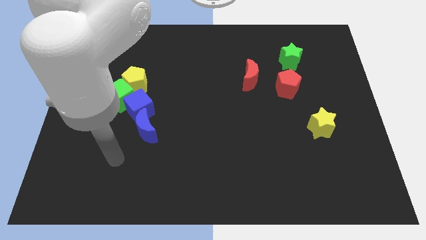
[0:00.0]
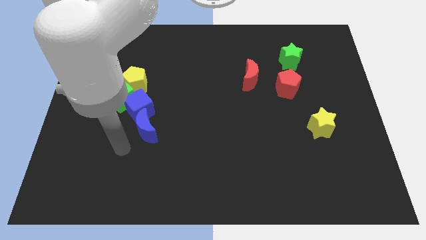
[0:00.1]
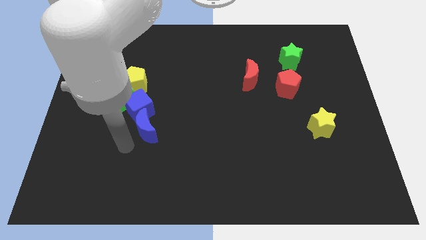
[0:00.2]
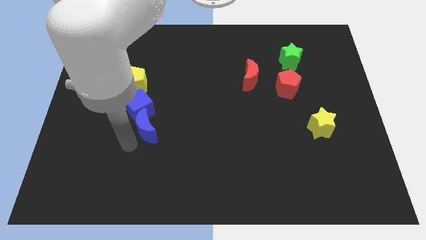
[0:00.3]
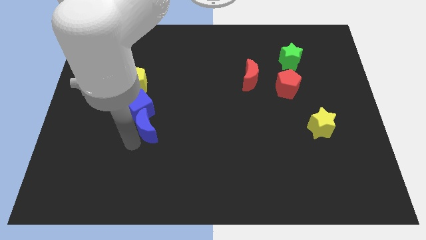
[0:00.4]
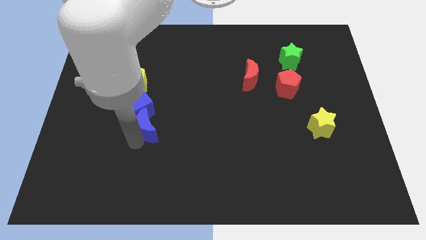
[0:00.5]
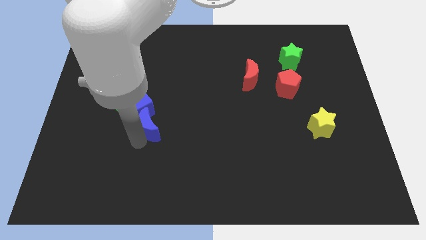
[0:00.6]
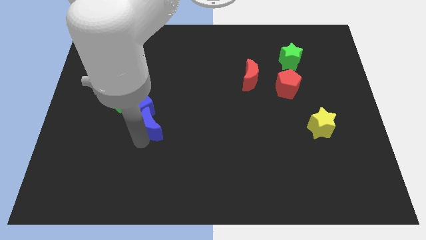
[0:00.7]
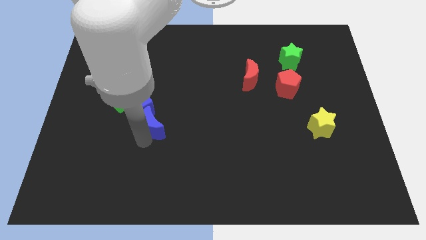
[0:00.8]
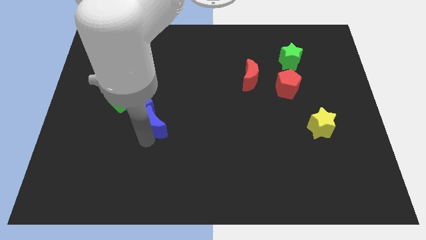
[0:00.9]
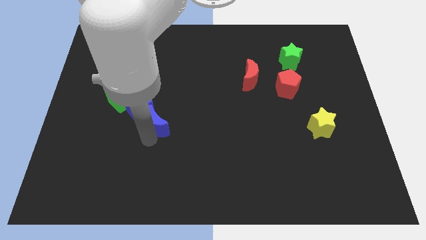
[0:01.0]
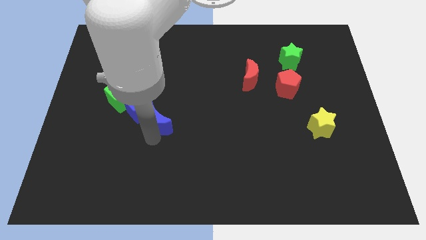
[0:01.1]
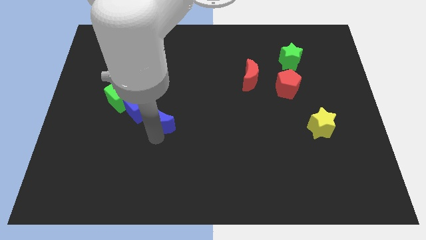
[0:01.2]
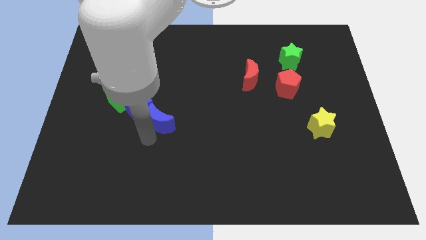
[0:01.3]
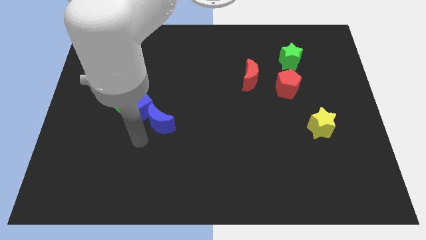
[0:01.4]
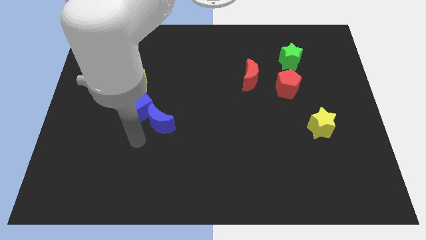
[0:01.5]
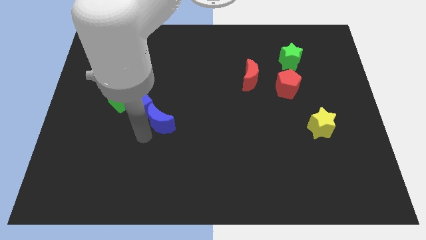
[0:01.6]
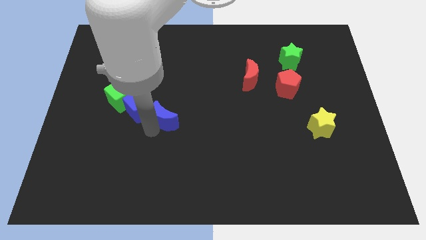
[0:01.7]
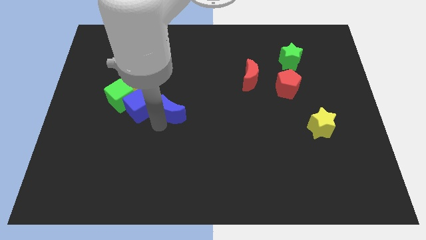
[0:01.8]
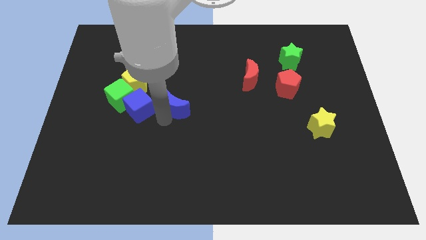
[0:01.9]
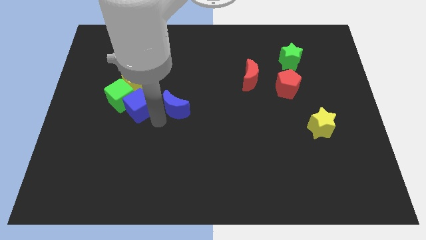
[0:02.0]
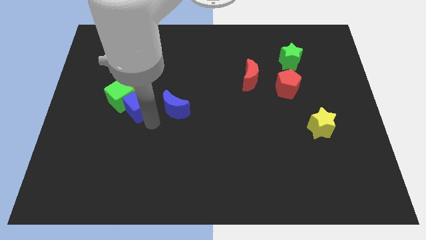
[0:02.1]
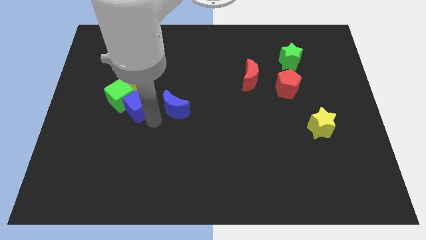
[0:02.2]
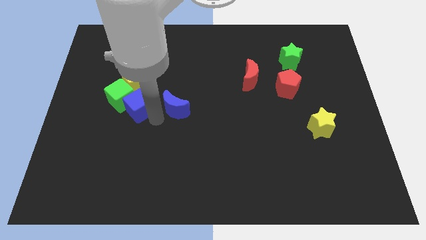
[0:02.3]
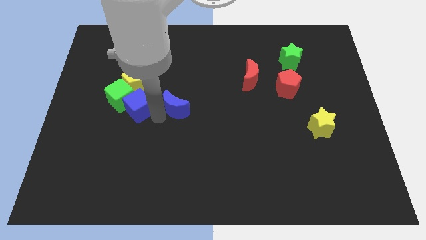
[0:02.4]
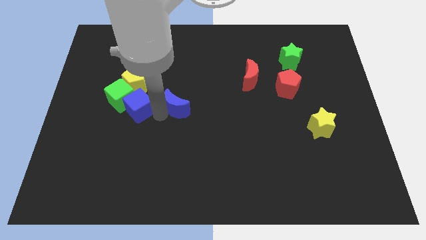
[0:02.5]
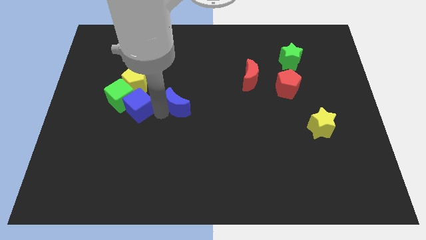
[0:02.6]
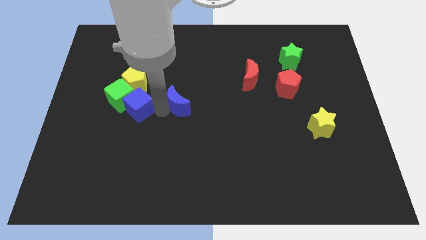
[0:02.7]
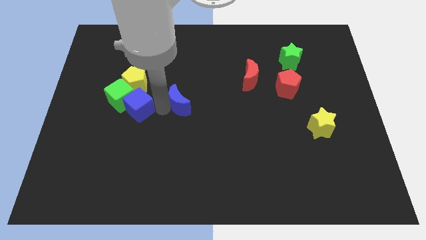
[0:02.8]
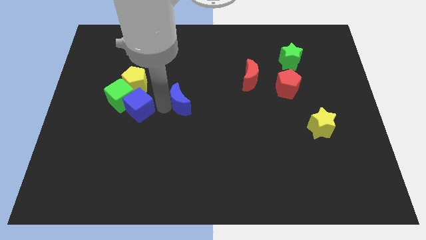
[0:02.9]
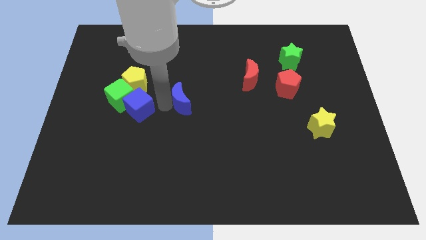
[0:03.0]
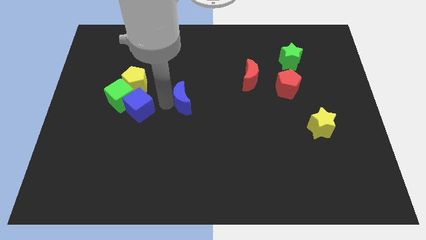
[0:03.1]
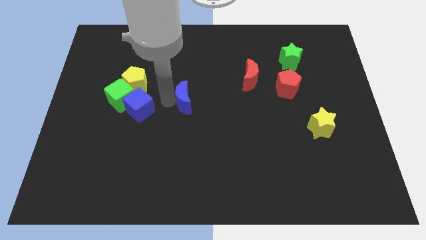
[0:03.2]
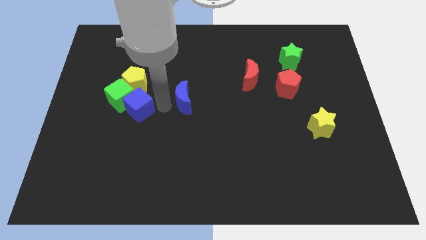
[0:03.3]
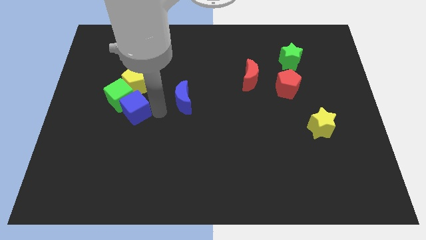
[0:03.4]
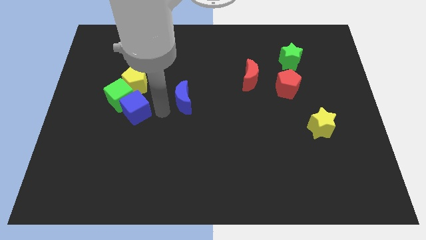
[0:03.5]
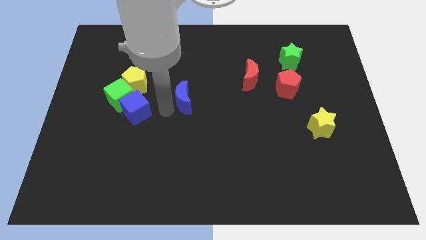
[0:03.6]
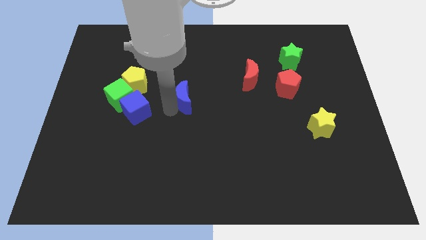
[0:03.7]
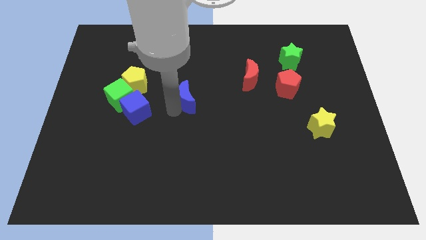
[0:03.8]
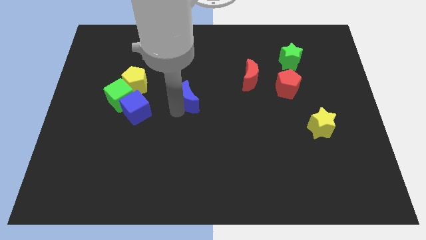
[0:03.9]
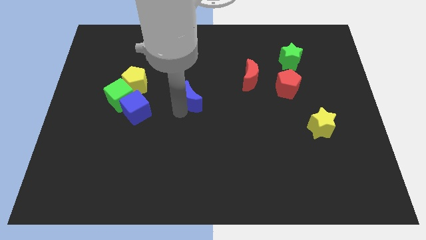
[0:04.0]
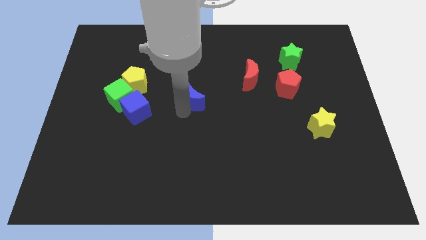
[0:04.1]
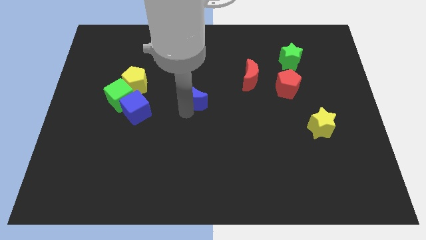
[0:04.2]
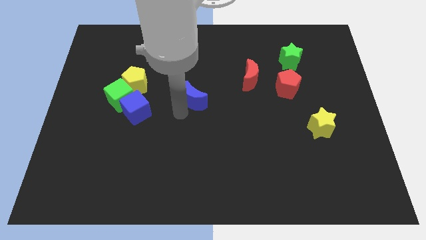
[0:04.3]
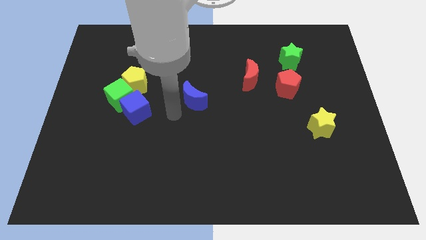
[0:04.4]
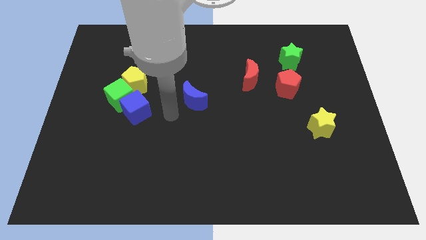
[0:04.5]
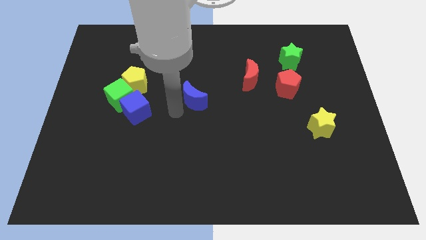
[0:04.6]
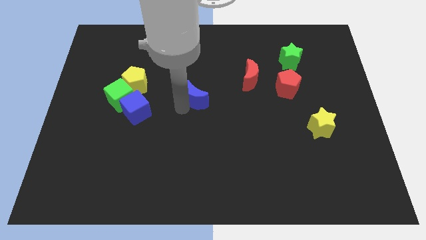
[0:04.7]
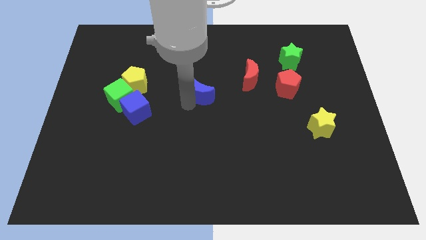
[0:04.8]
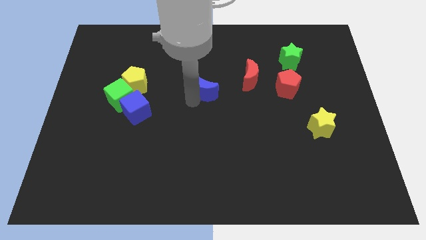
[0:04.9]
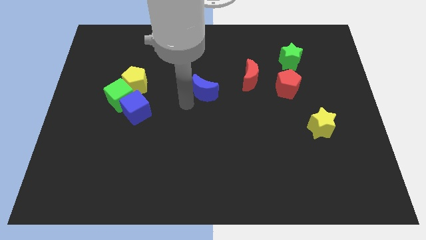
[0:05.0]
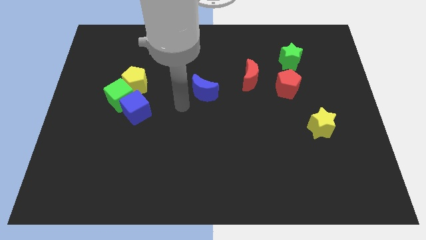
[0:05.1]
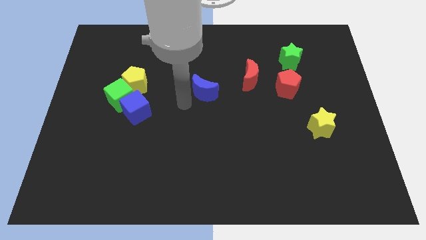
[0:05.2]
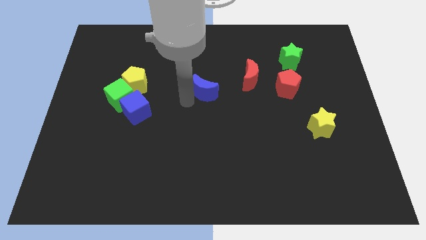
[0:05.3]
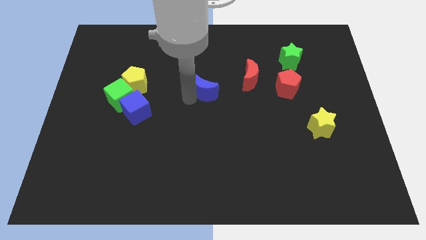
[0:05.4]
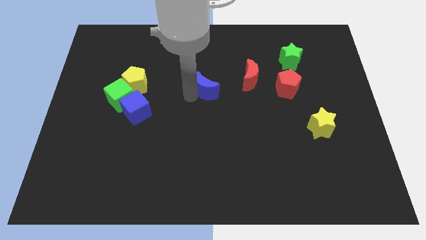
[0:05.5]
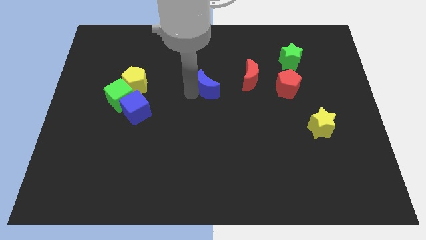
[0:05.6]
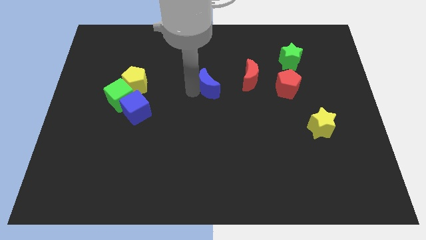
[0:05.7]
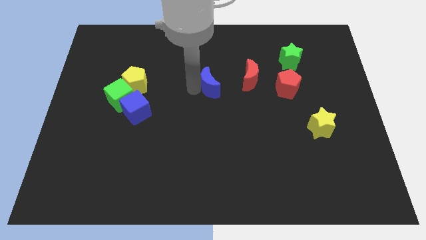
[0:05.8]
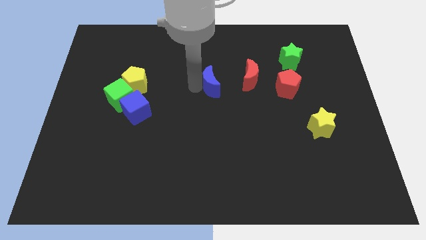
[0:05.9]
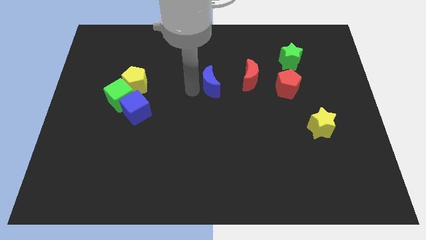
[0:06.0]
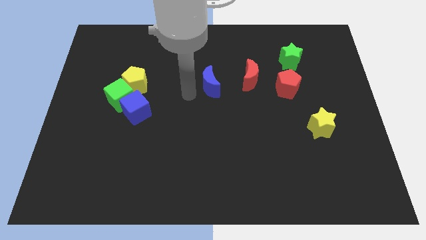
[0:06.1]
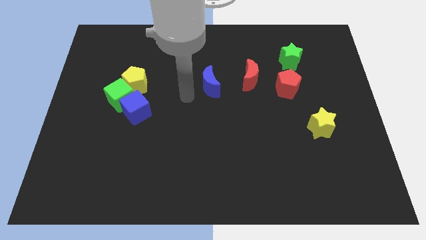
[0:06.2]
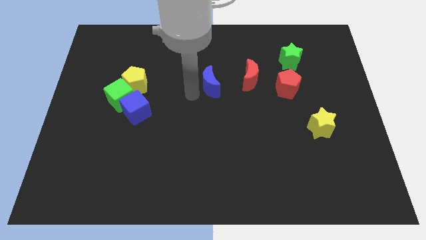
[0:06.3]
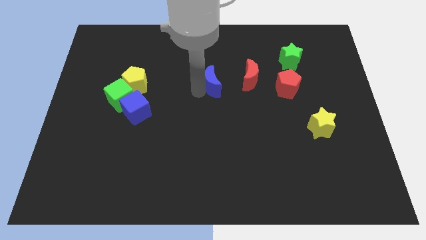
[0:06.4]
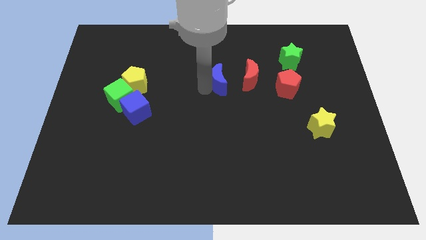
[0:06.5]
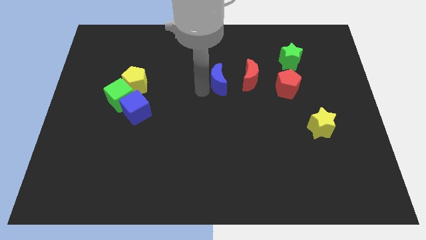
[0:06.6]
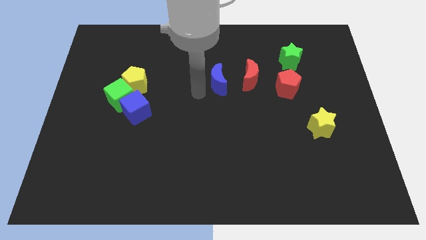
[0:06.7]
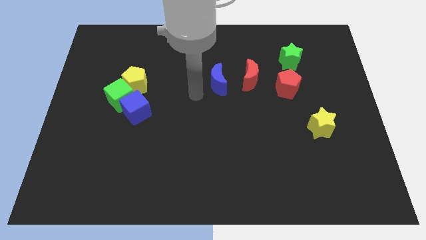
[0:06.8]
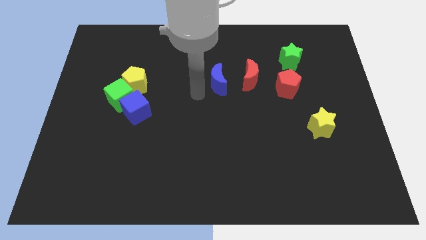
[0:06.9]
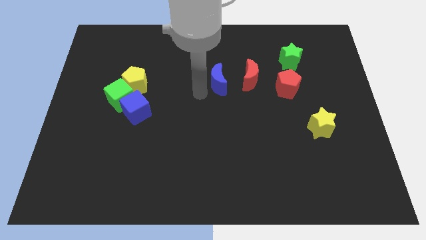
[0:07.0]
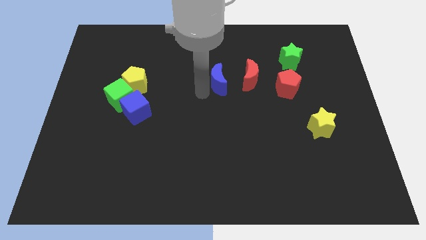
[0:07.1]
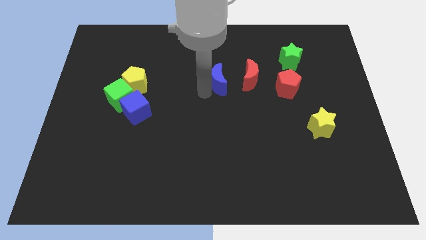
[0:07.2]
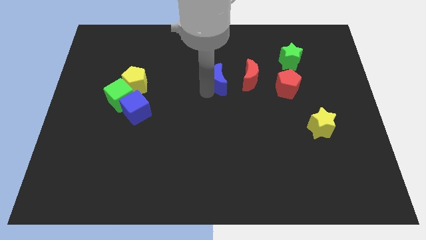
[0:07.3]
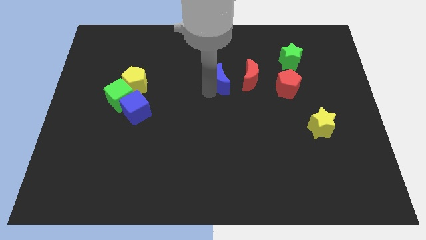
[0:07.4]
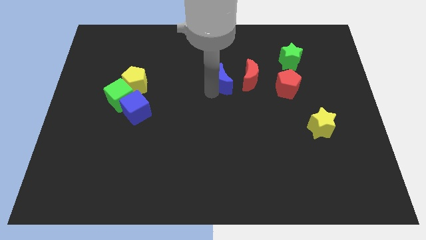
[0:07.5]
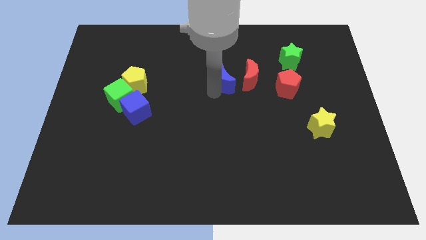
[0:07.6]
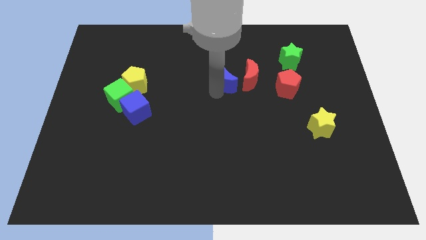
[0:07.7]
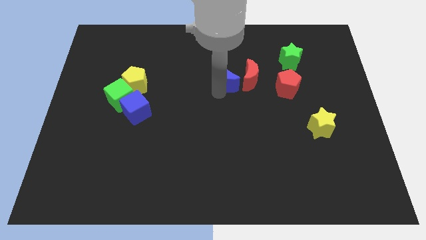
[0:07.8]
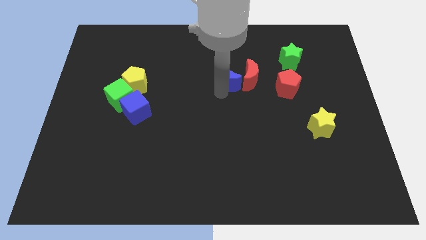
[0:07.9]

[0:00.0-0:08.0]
move the blue moon close to the red moon
